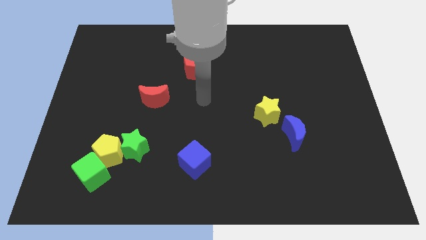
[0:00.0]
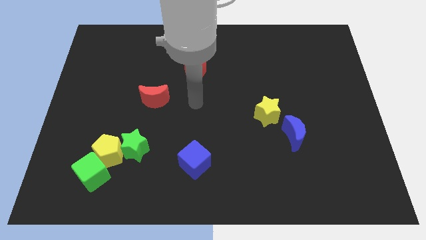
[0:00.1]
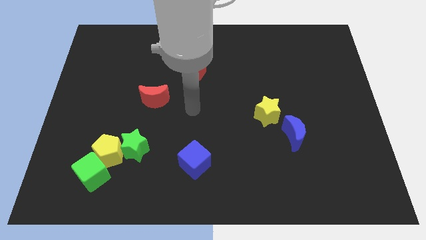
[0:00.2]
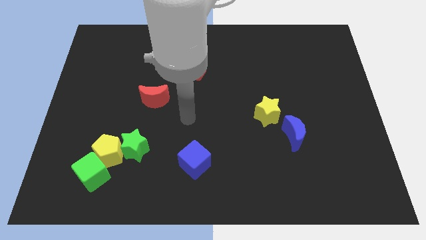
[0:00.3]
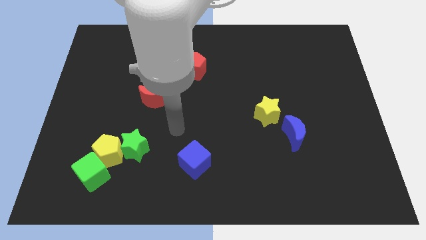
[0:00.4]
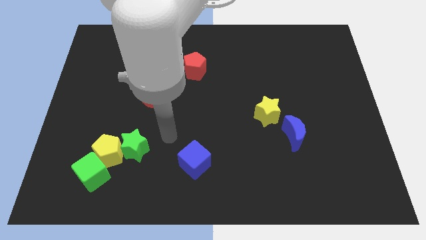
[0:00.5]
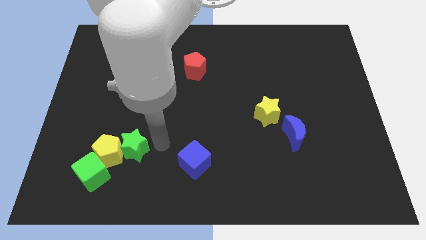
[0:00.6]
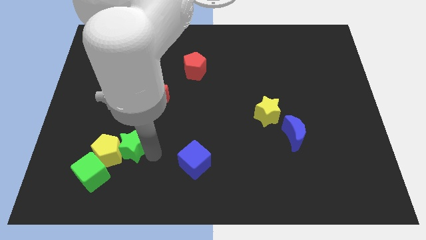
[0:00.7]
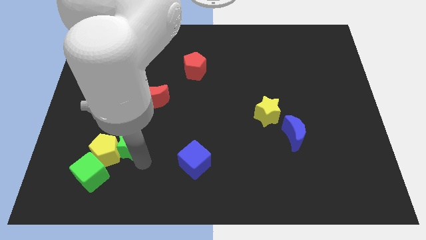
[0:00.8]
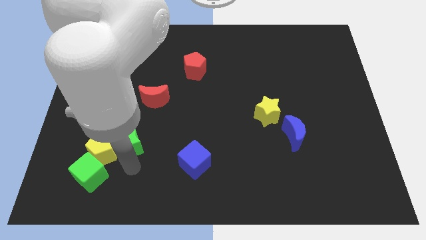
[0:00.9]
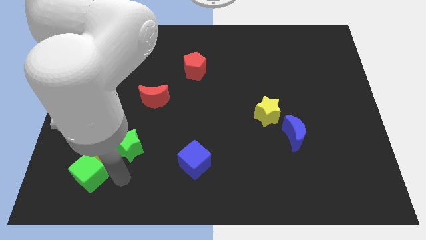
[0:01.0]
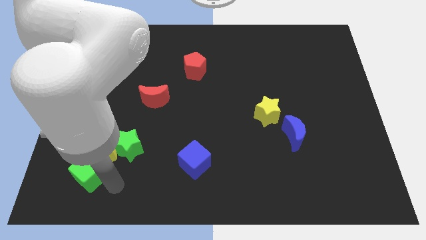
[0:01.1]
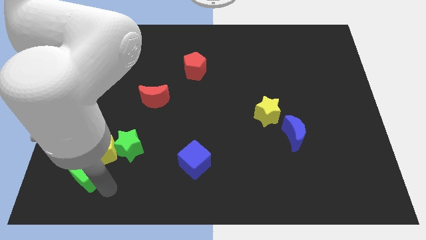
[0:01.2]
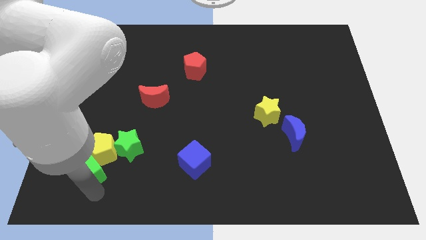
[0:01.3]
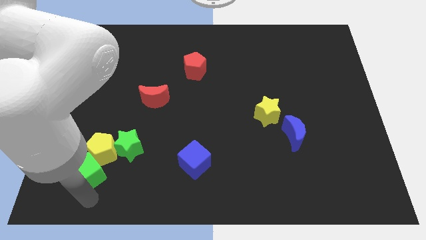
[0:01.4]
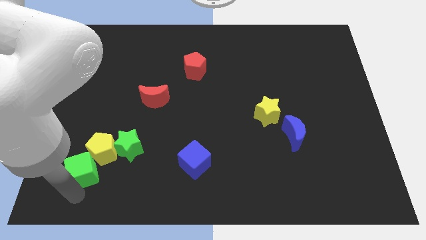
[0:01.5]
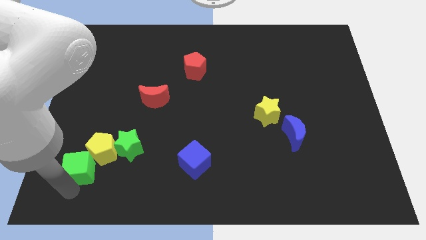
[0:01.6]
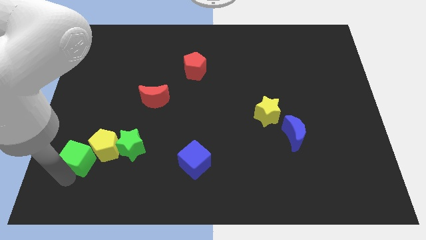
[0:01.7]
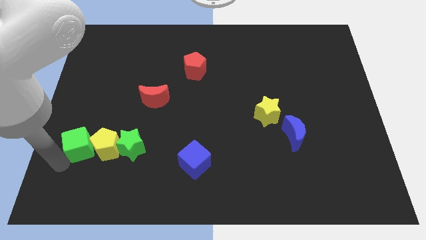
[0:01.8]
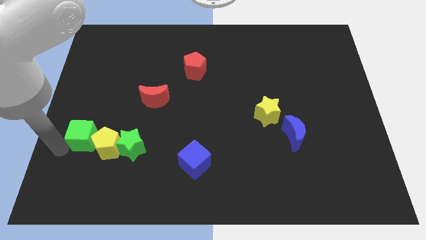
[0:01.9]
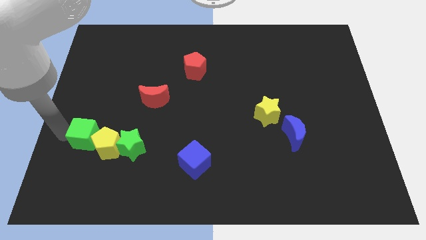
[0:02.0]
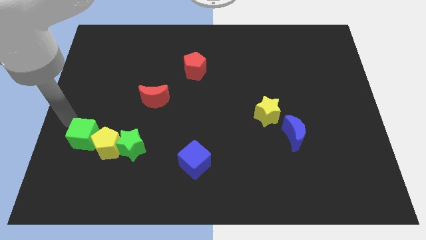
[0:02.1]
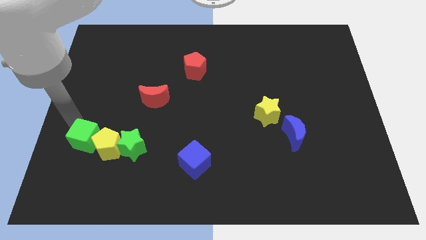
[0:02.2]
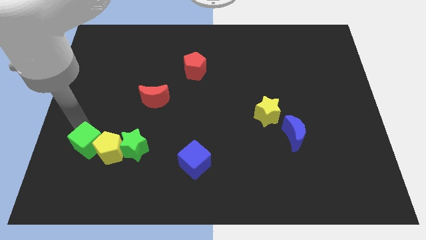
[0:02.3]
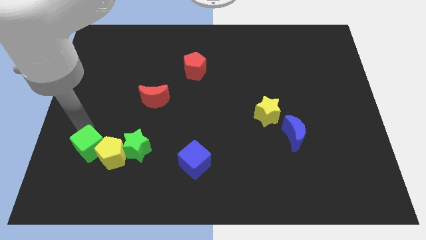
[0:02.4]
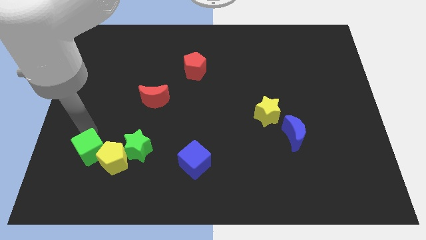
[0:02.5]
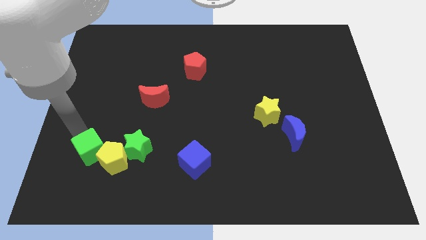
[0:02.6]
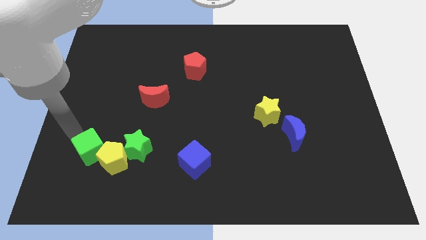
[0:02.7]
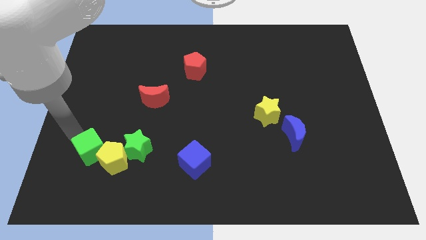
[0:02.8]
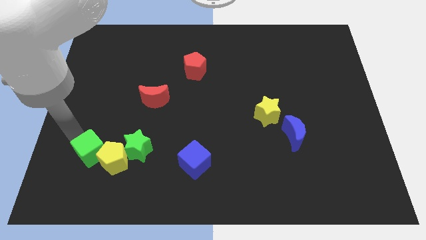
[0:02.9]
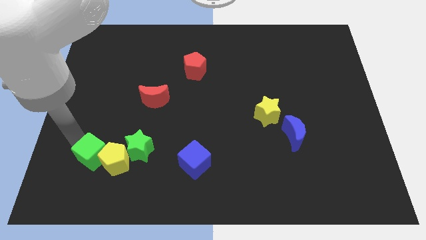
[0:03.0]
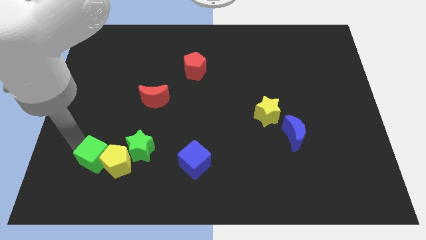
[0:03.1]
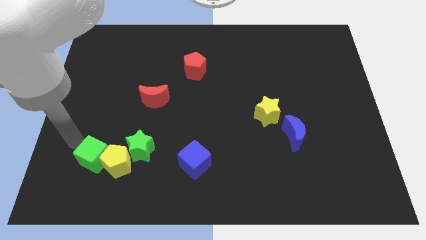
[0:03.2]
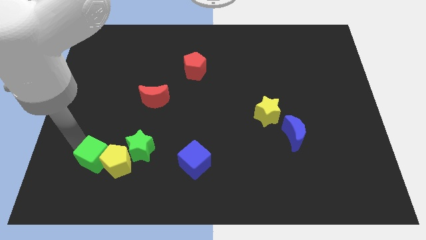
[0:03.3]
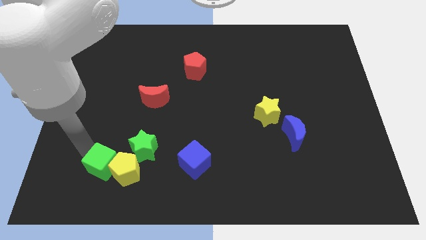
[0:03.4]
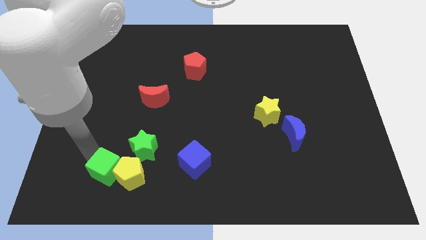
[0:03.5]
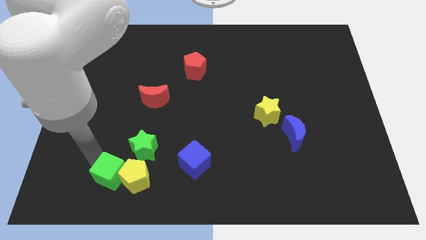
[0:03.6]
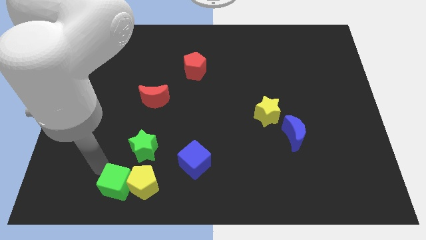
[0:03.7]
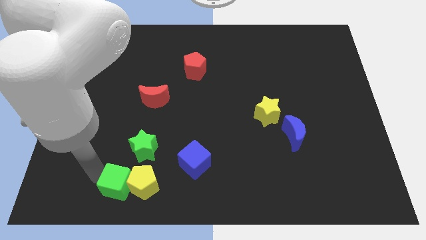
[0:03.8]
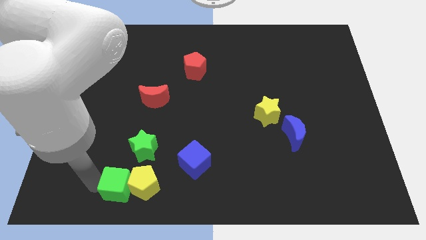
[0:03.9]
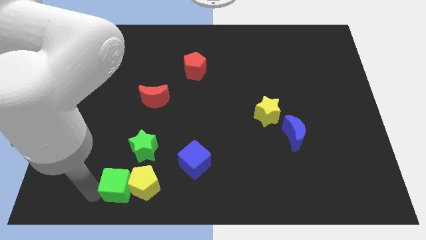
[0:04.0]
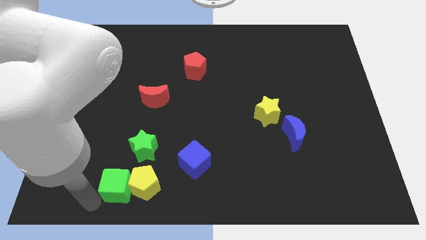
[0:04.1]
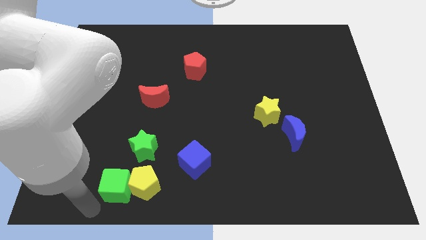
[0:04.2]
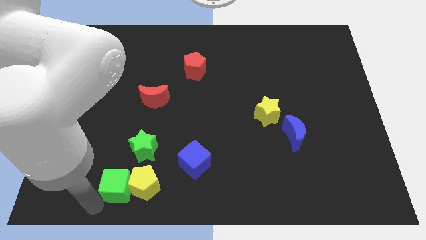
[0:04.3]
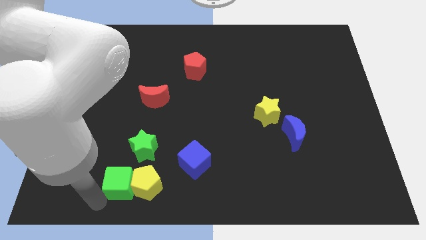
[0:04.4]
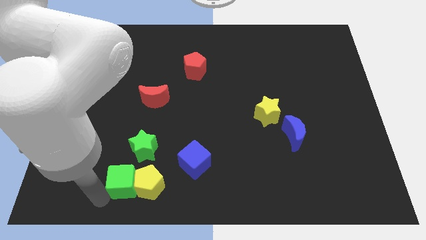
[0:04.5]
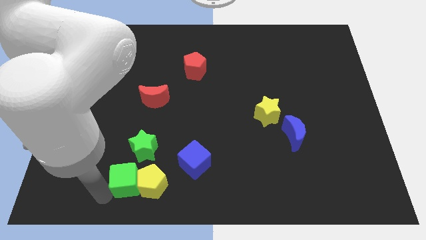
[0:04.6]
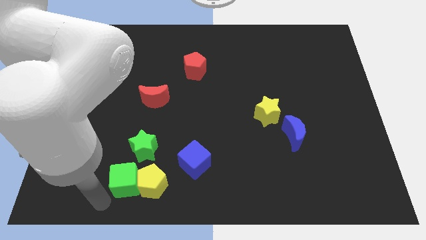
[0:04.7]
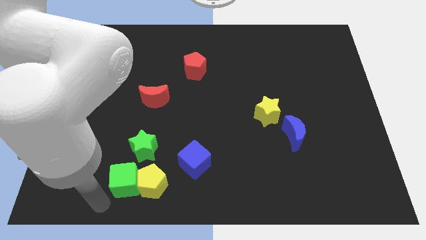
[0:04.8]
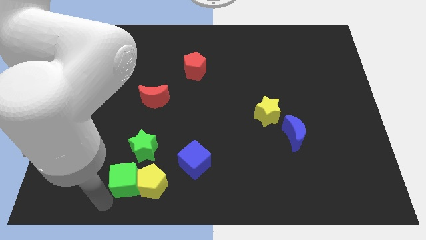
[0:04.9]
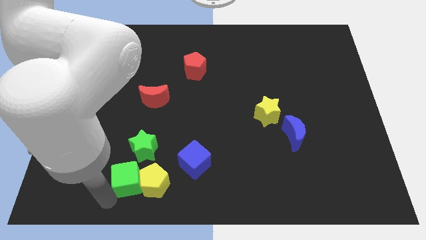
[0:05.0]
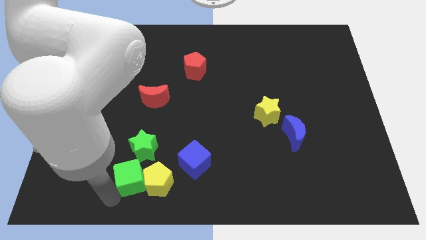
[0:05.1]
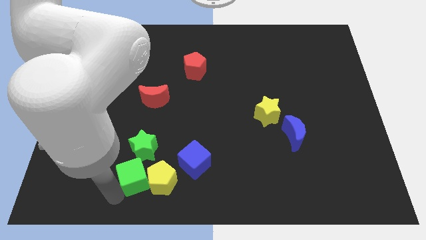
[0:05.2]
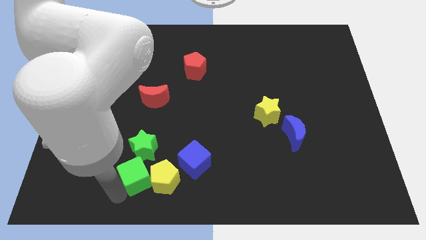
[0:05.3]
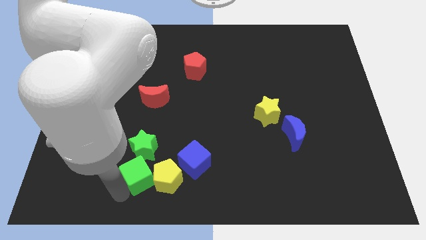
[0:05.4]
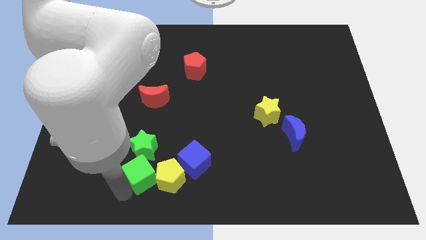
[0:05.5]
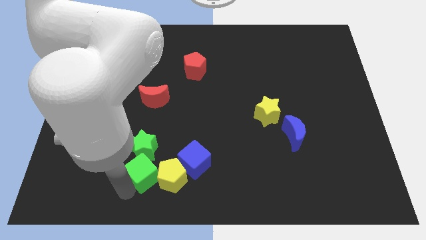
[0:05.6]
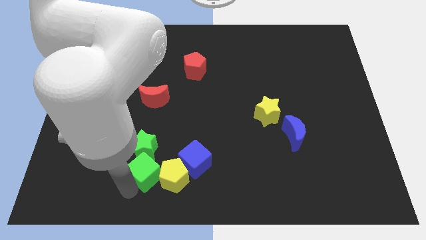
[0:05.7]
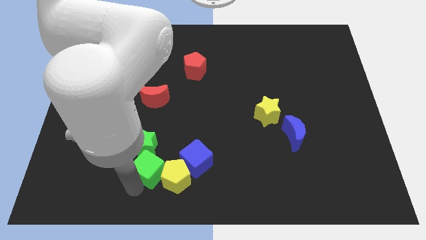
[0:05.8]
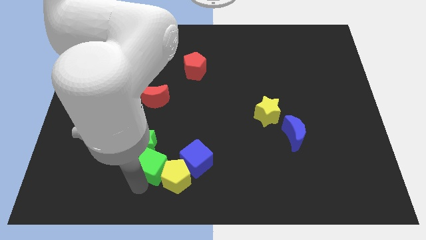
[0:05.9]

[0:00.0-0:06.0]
slightly move the green cube upwards and right

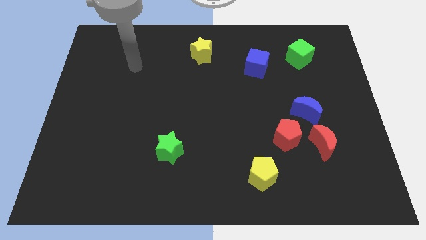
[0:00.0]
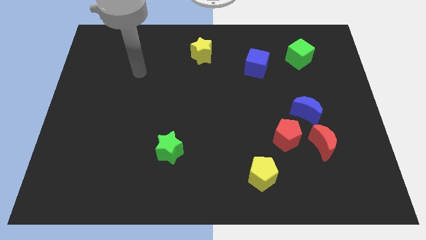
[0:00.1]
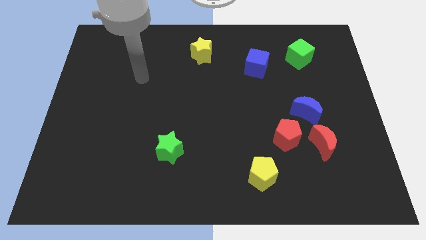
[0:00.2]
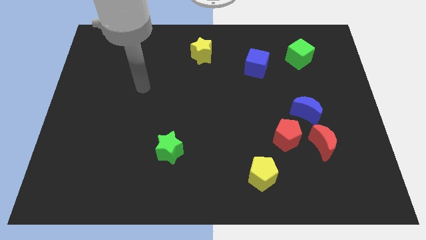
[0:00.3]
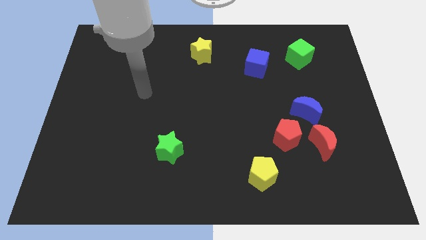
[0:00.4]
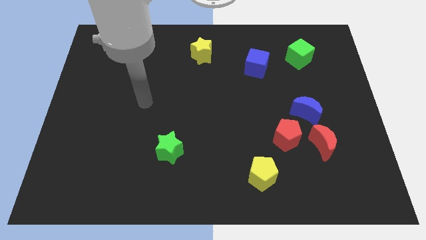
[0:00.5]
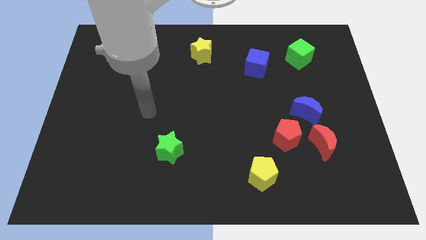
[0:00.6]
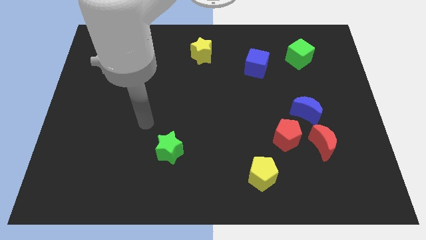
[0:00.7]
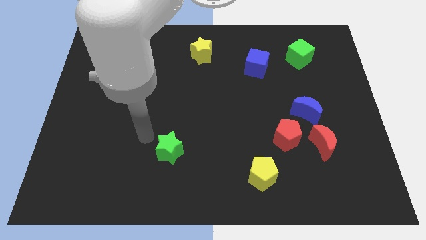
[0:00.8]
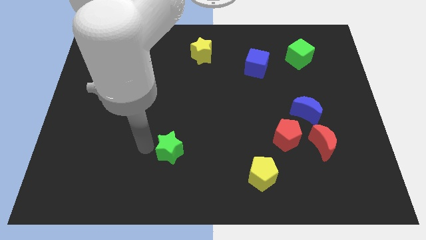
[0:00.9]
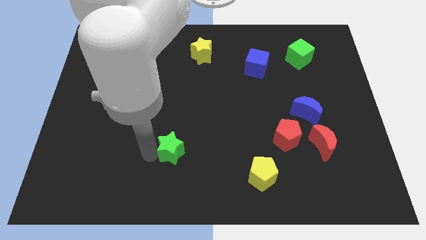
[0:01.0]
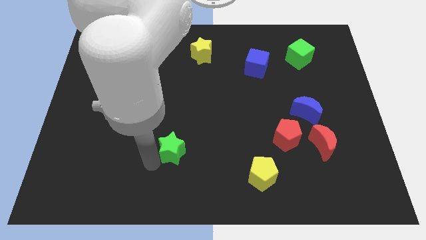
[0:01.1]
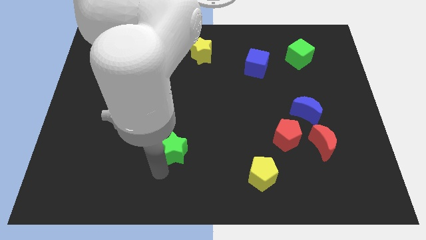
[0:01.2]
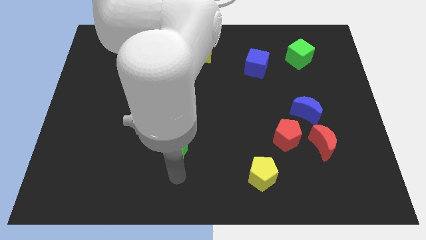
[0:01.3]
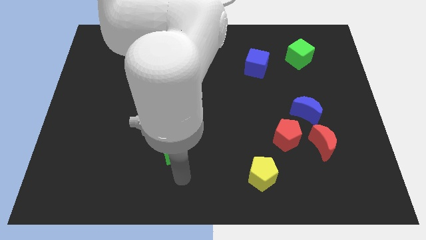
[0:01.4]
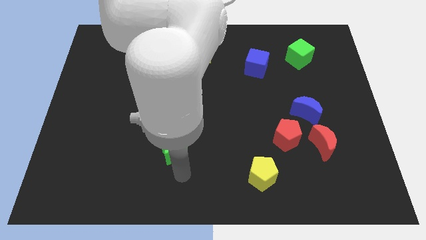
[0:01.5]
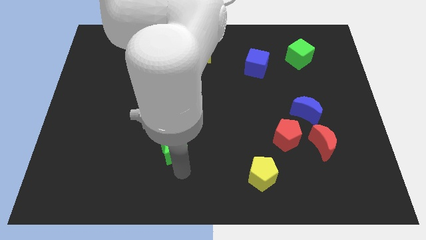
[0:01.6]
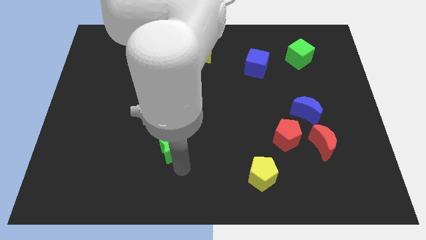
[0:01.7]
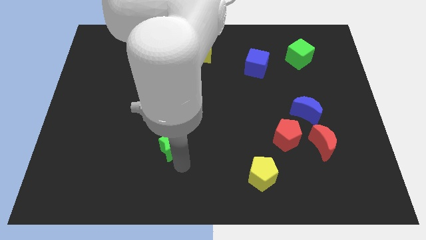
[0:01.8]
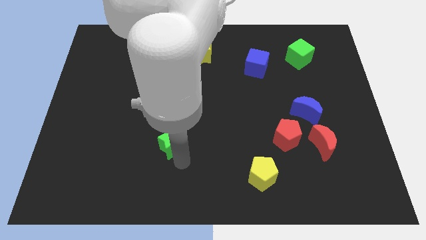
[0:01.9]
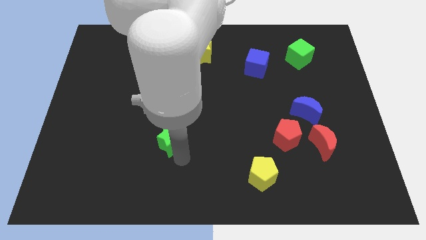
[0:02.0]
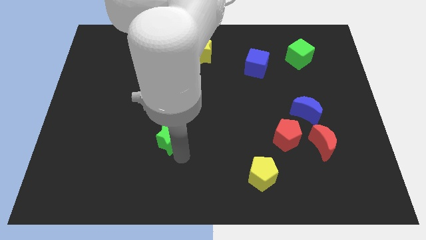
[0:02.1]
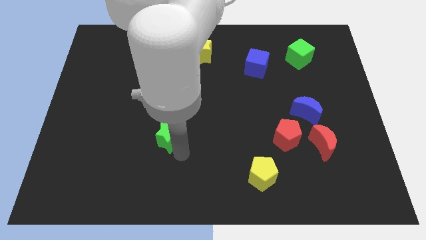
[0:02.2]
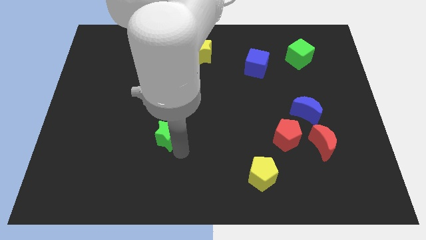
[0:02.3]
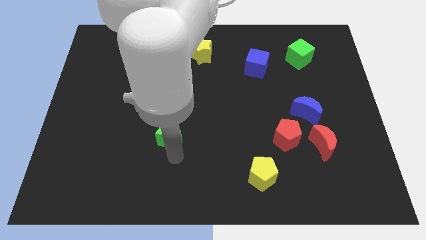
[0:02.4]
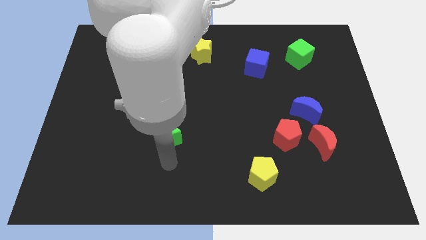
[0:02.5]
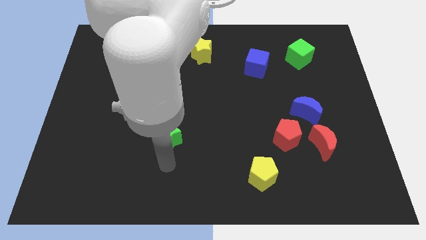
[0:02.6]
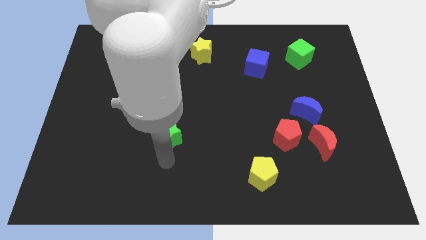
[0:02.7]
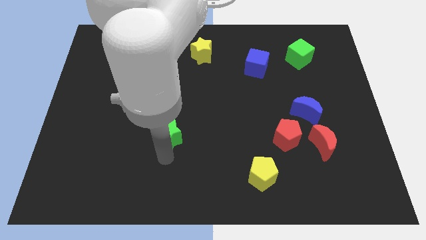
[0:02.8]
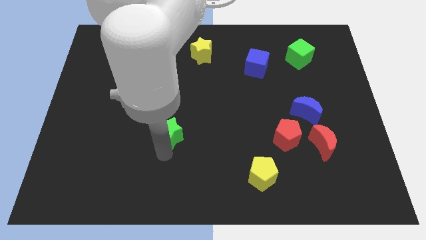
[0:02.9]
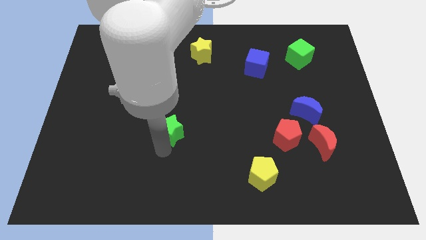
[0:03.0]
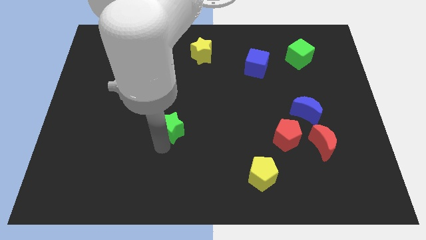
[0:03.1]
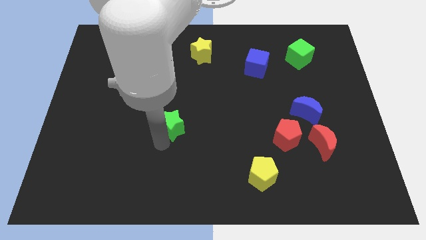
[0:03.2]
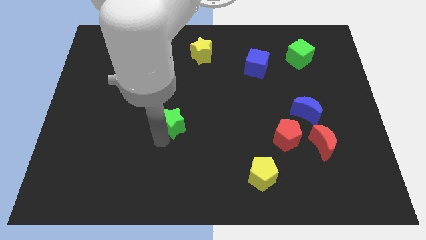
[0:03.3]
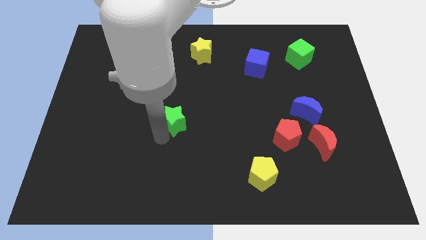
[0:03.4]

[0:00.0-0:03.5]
move the green star upwards somewhat
